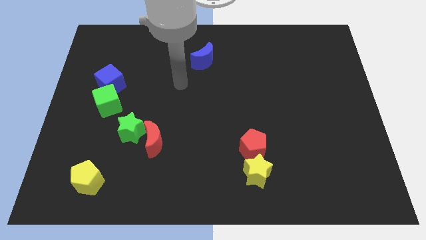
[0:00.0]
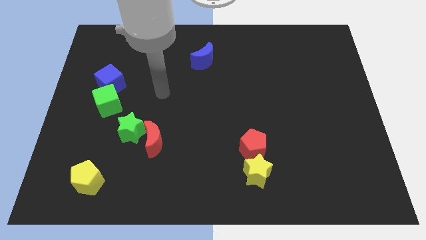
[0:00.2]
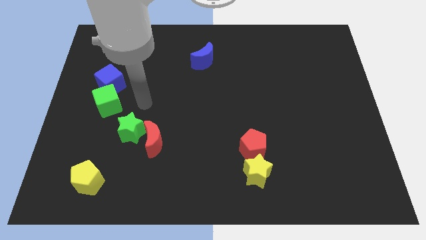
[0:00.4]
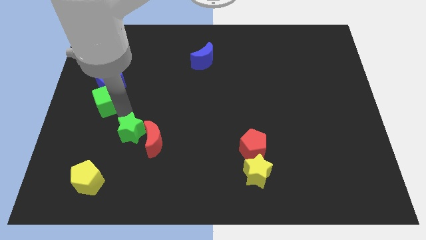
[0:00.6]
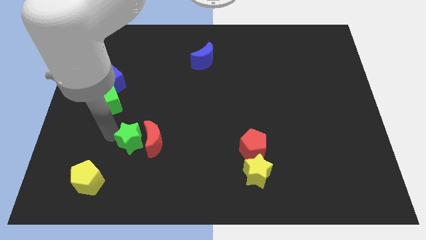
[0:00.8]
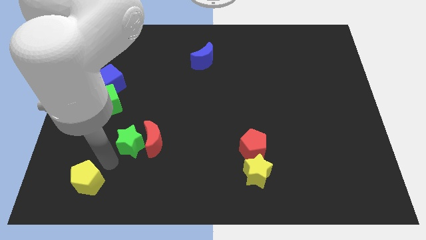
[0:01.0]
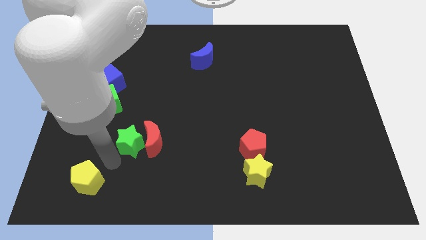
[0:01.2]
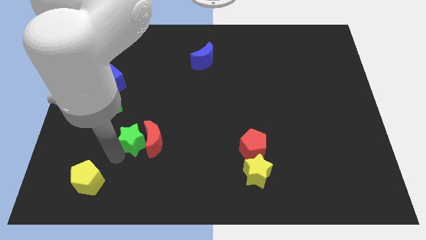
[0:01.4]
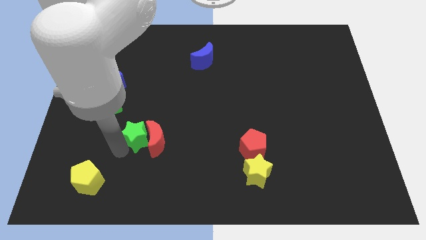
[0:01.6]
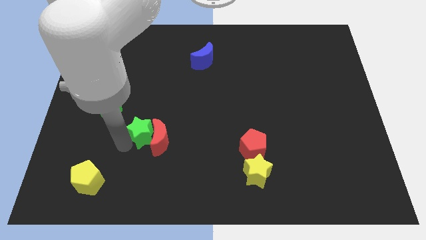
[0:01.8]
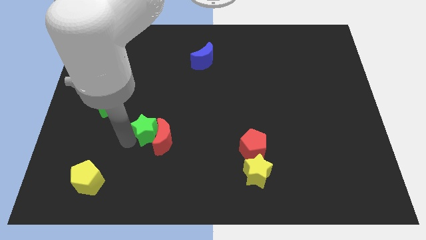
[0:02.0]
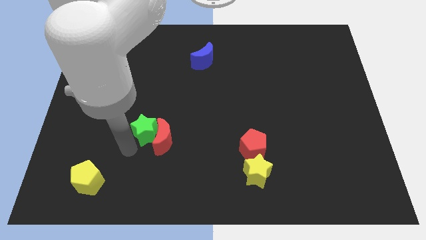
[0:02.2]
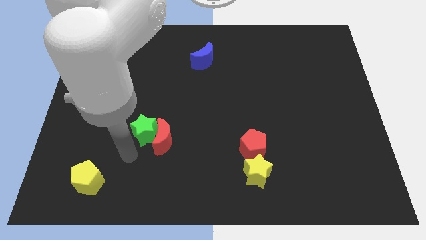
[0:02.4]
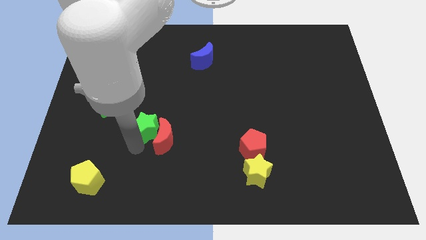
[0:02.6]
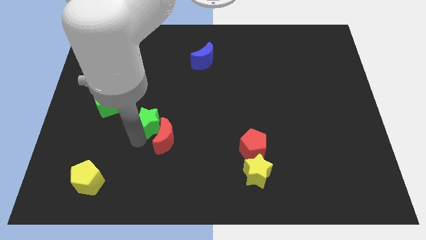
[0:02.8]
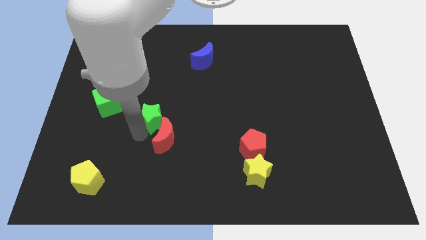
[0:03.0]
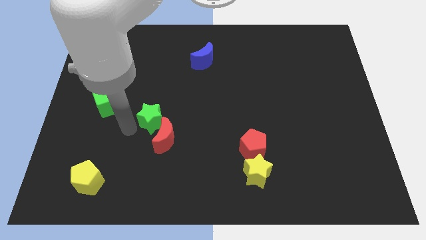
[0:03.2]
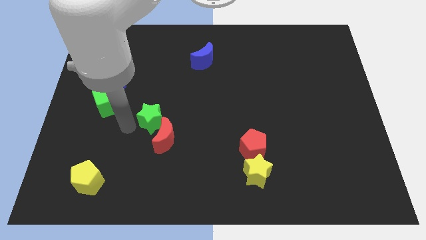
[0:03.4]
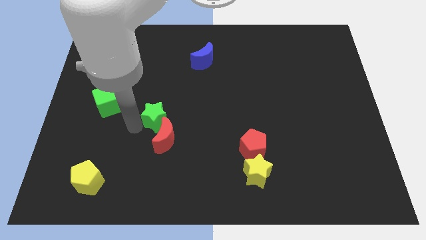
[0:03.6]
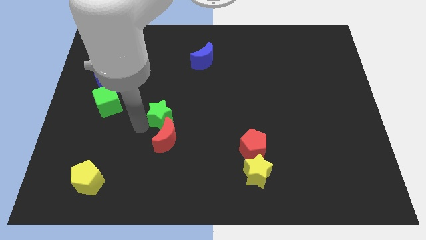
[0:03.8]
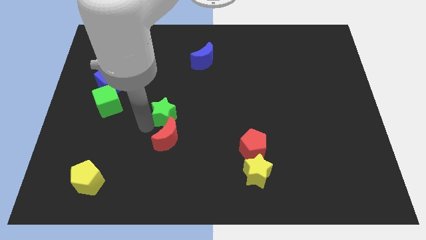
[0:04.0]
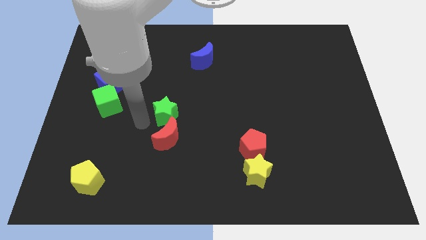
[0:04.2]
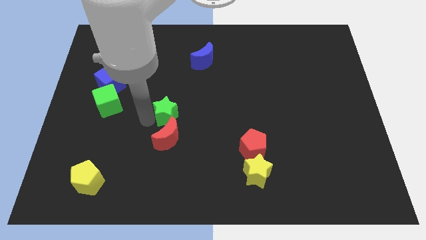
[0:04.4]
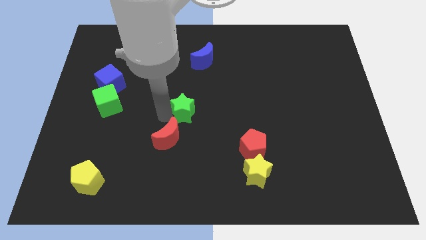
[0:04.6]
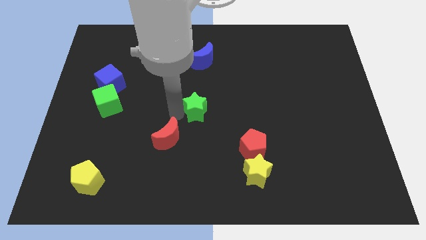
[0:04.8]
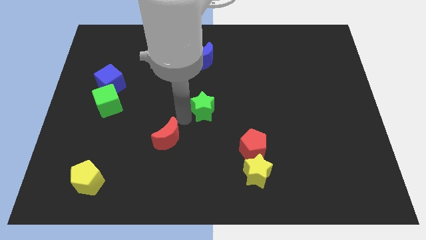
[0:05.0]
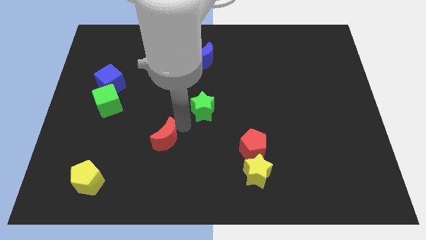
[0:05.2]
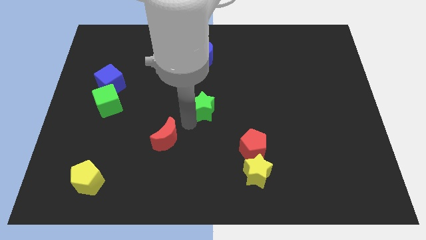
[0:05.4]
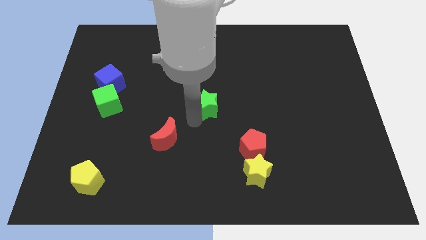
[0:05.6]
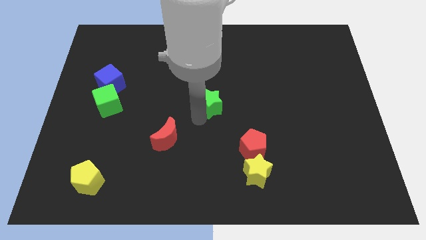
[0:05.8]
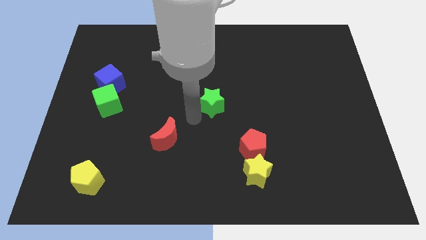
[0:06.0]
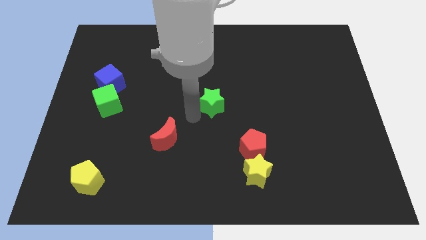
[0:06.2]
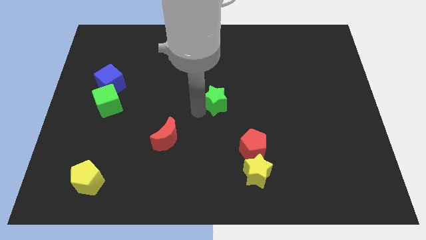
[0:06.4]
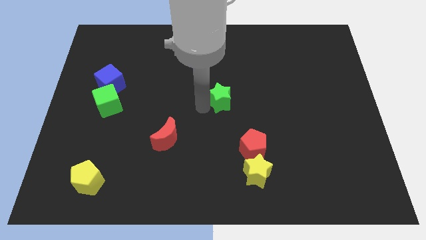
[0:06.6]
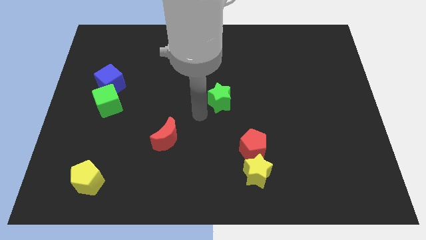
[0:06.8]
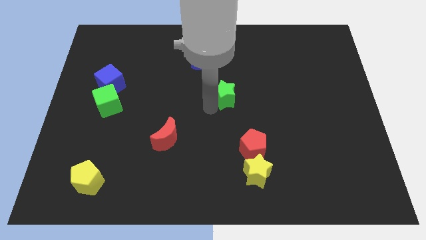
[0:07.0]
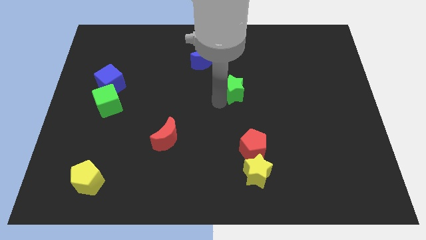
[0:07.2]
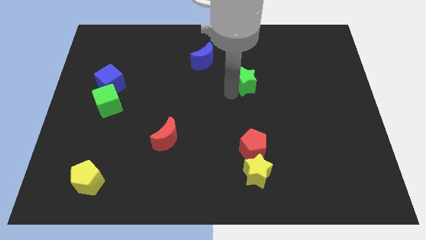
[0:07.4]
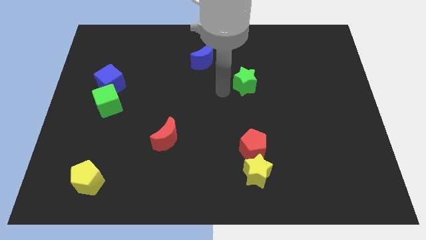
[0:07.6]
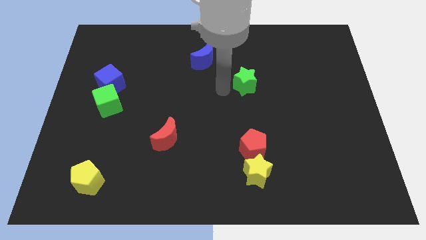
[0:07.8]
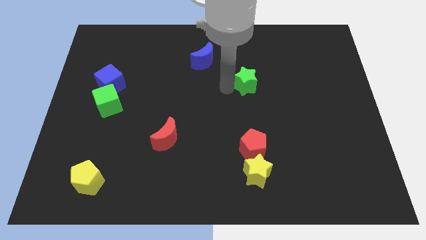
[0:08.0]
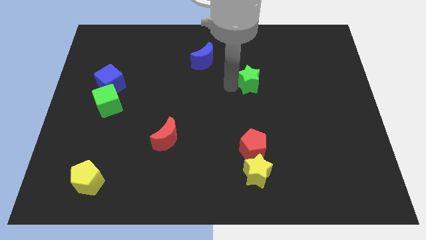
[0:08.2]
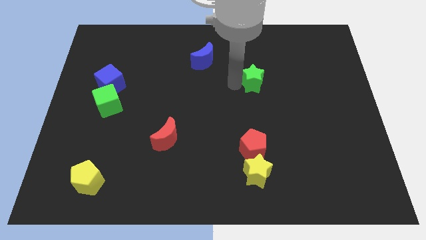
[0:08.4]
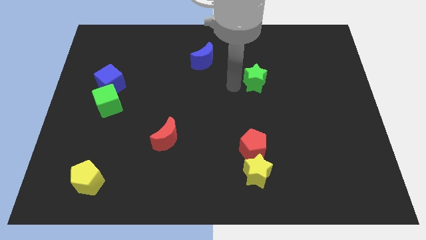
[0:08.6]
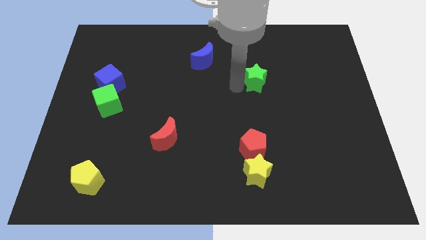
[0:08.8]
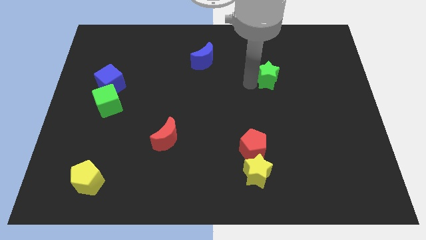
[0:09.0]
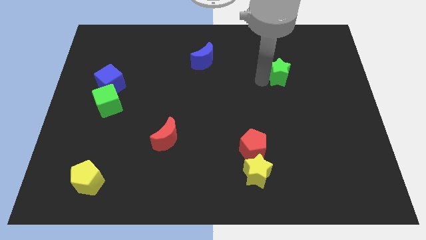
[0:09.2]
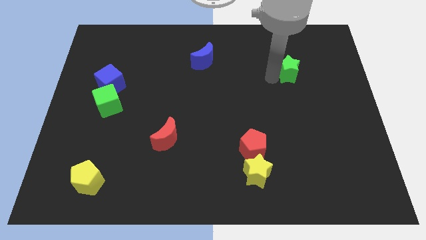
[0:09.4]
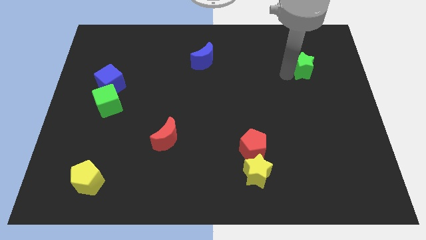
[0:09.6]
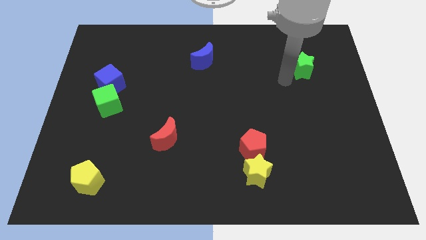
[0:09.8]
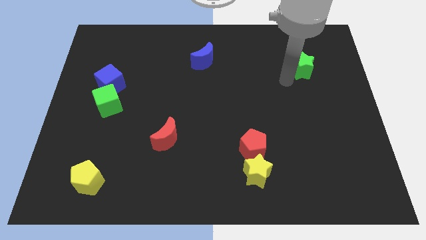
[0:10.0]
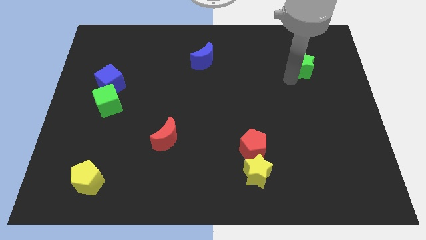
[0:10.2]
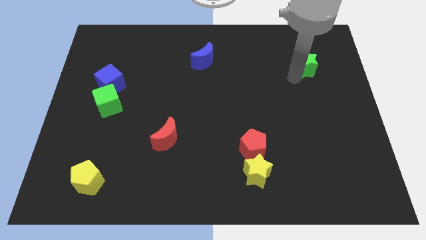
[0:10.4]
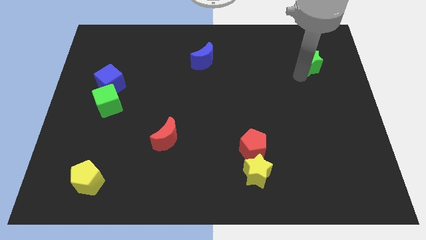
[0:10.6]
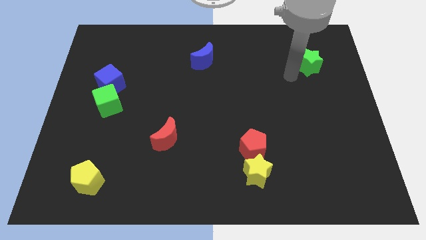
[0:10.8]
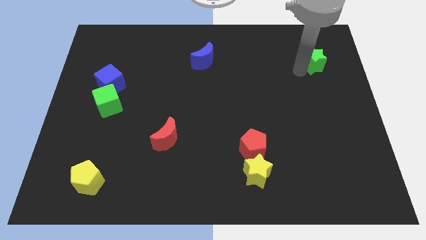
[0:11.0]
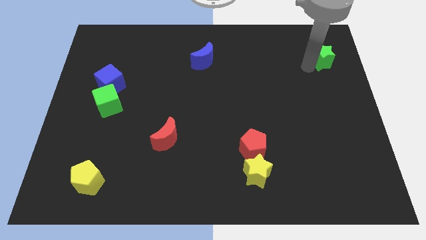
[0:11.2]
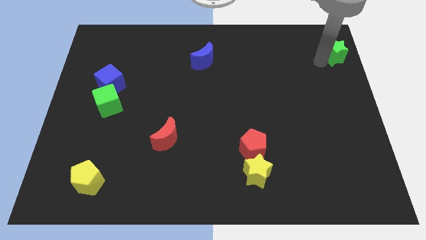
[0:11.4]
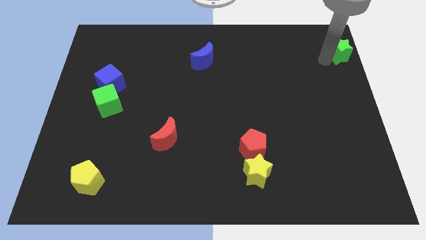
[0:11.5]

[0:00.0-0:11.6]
push the green star to the top right

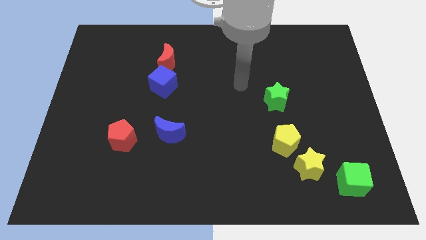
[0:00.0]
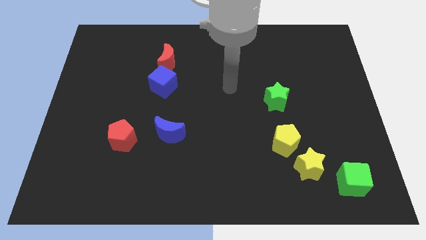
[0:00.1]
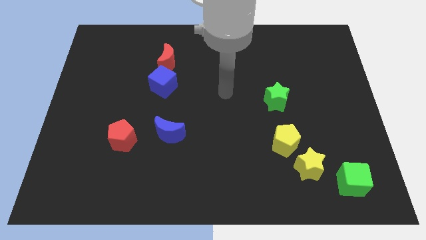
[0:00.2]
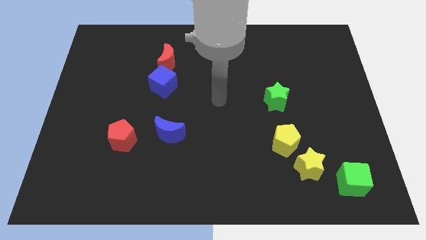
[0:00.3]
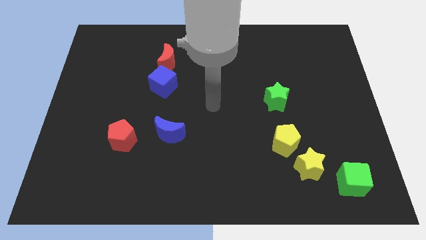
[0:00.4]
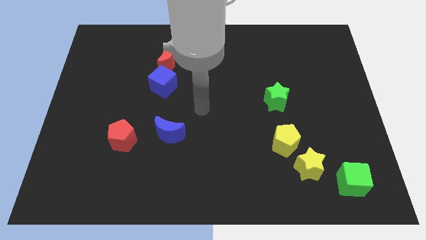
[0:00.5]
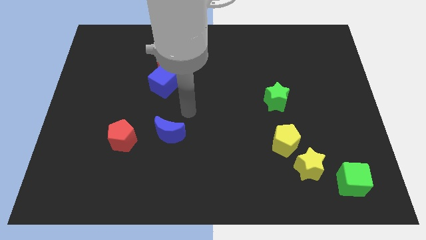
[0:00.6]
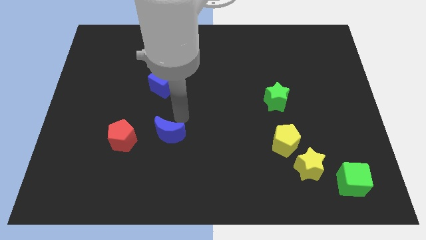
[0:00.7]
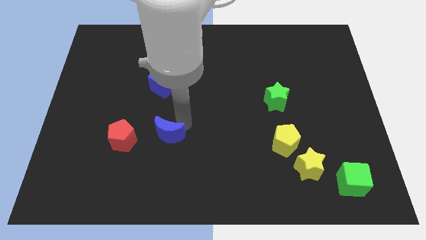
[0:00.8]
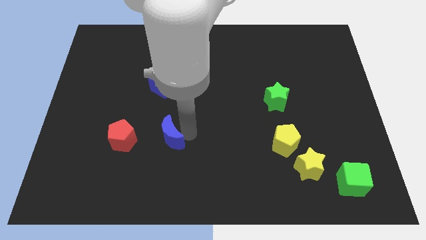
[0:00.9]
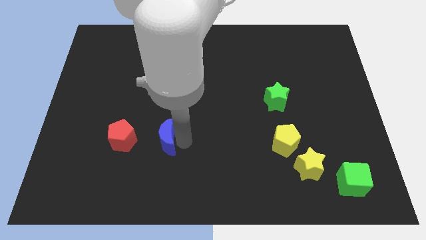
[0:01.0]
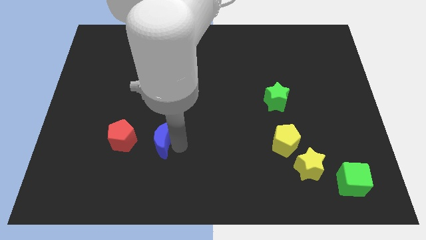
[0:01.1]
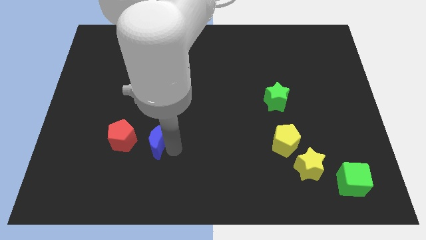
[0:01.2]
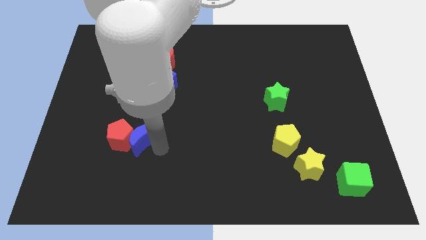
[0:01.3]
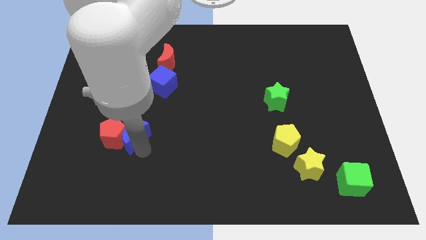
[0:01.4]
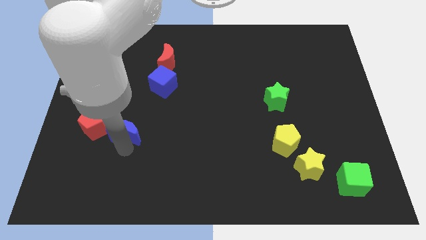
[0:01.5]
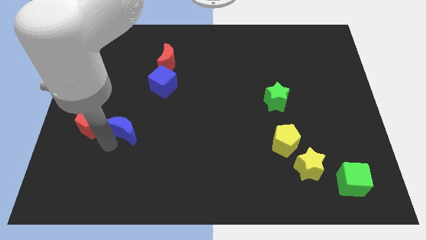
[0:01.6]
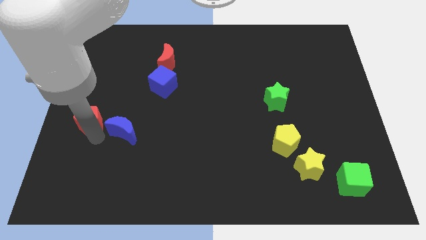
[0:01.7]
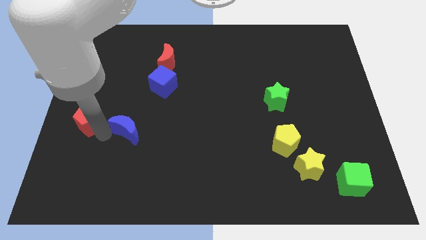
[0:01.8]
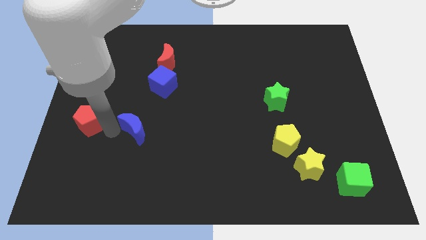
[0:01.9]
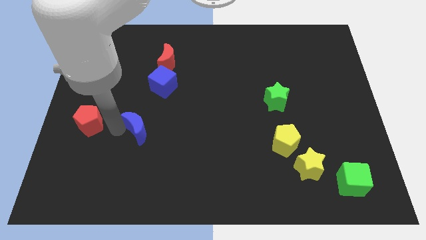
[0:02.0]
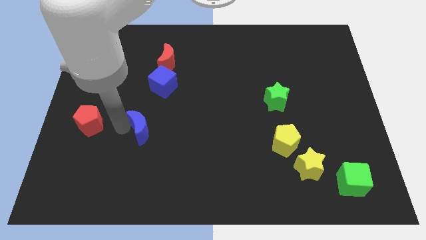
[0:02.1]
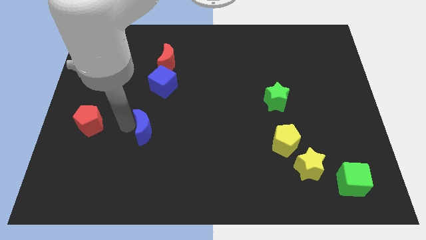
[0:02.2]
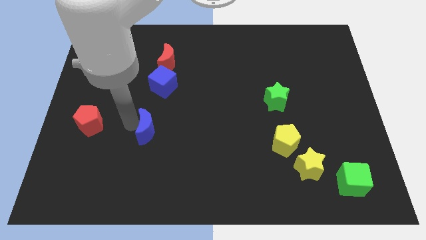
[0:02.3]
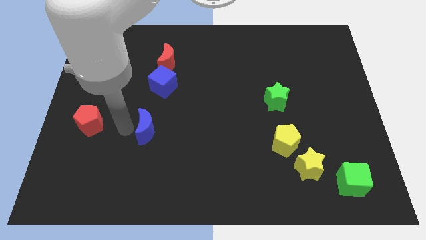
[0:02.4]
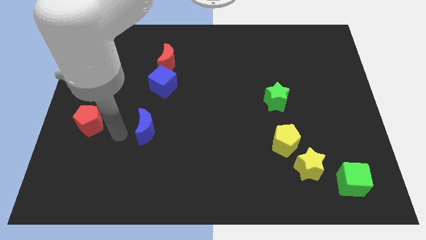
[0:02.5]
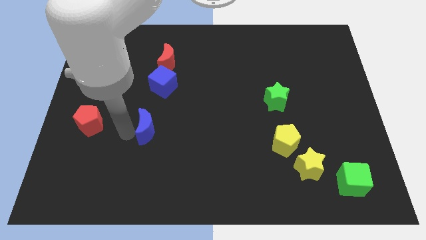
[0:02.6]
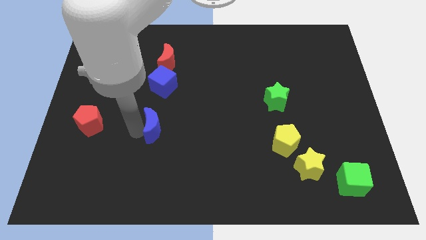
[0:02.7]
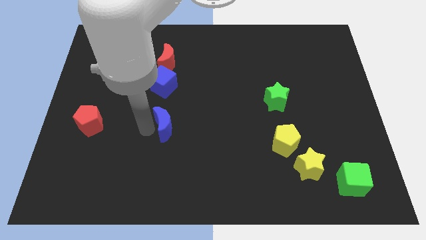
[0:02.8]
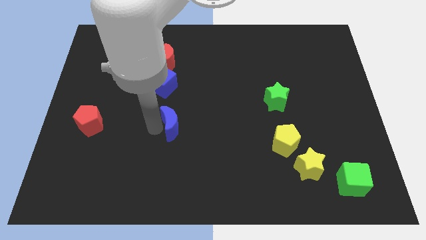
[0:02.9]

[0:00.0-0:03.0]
slide the blue moon to the center
